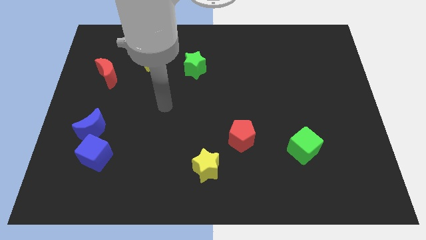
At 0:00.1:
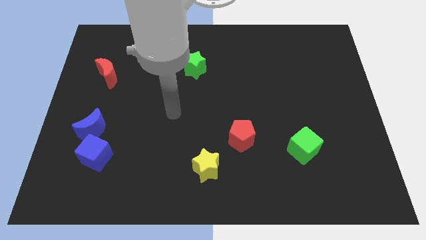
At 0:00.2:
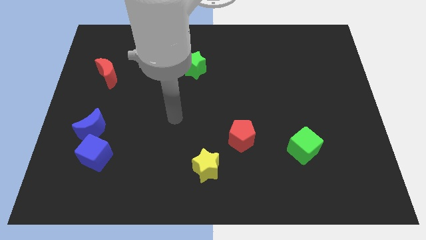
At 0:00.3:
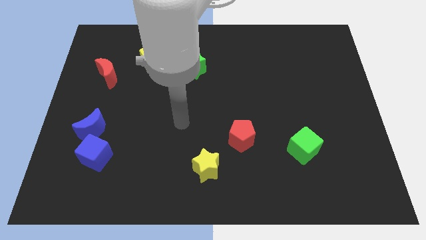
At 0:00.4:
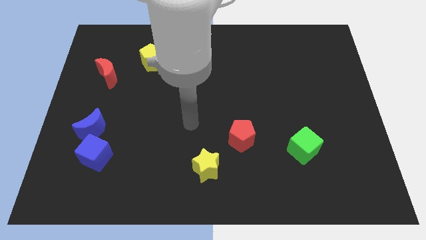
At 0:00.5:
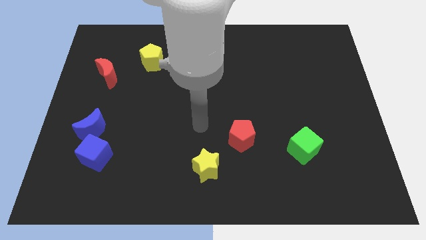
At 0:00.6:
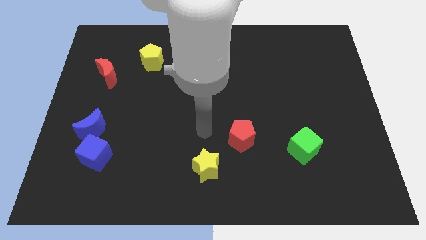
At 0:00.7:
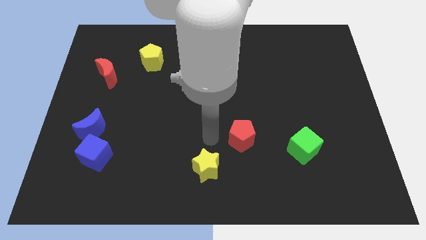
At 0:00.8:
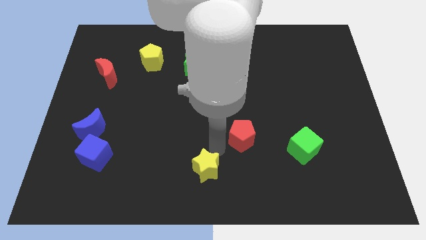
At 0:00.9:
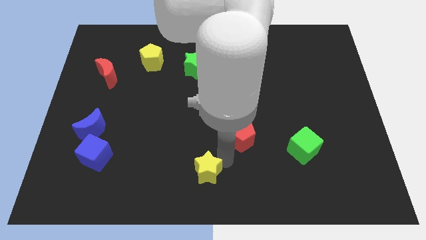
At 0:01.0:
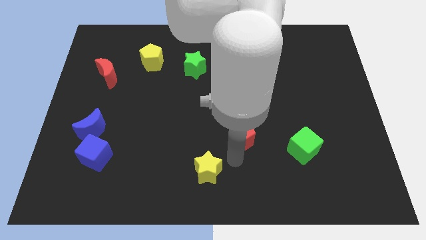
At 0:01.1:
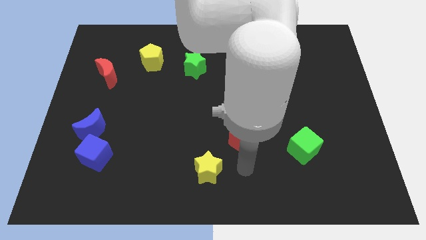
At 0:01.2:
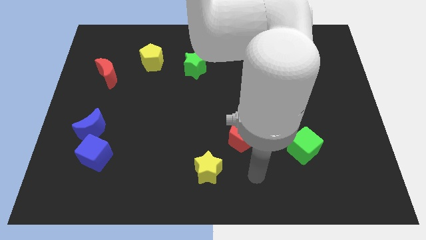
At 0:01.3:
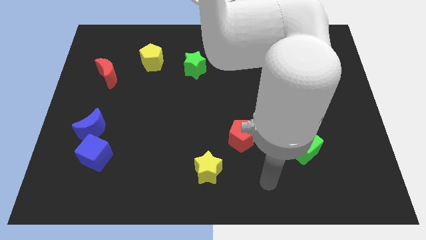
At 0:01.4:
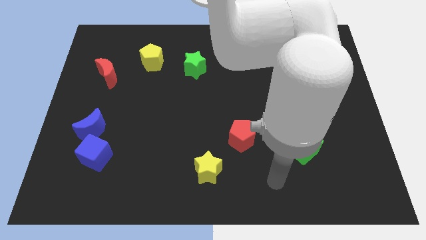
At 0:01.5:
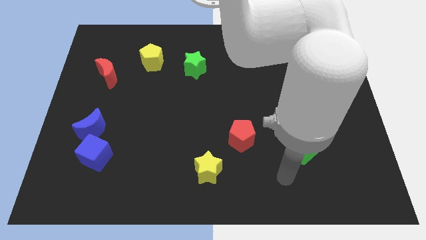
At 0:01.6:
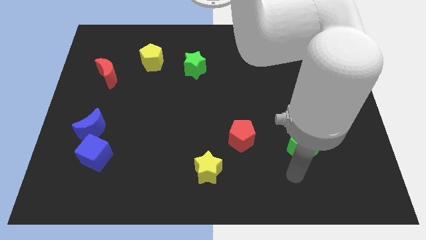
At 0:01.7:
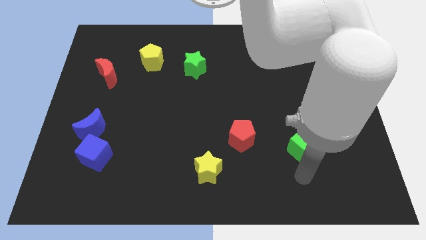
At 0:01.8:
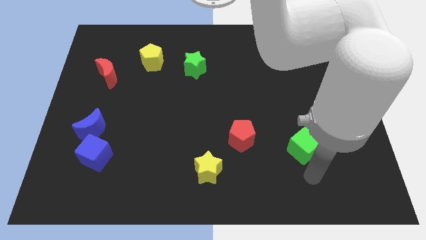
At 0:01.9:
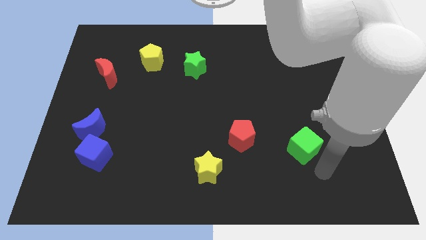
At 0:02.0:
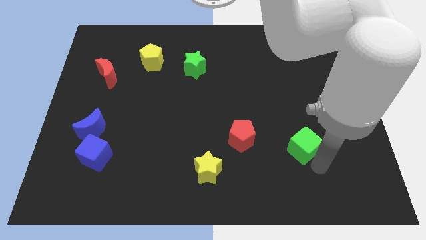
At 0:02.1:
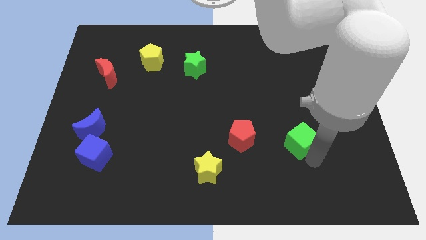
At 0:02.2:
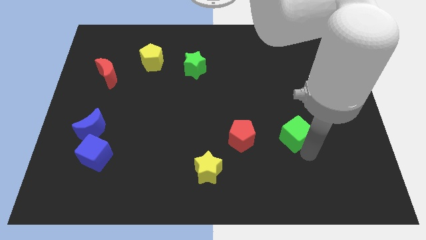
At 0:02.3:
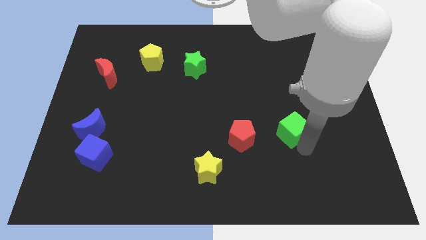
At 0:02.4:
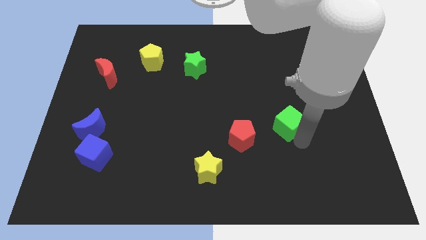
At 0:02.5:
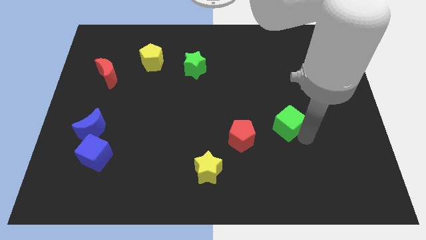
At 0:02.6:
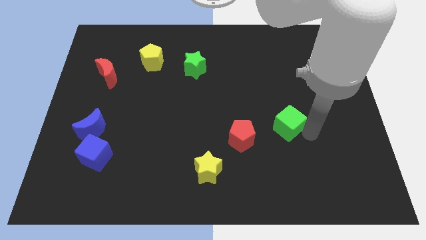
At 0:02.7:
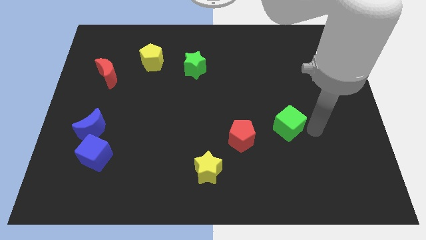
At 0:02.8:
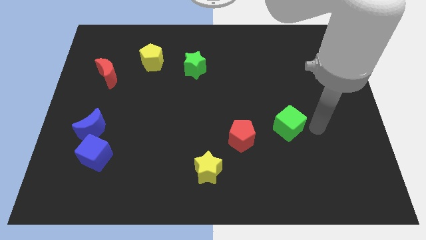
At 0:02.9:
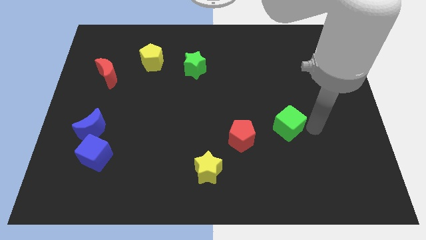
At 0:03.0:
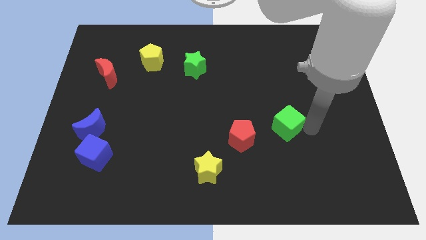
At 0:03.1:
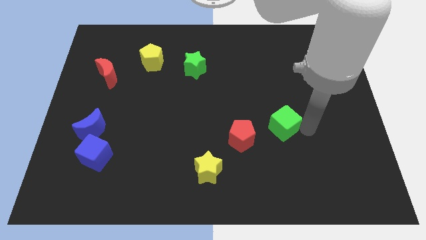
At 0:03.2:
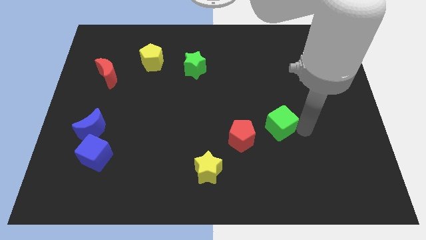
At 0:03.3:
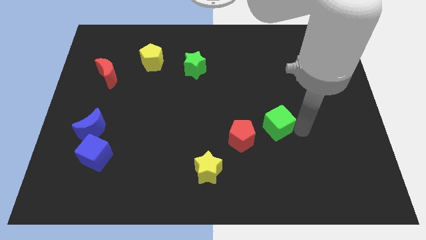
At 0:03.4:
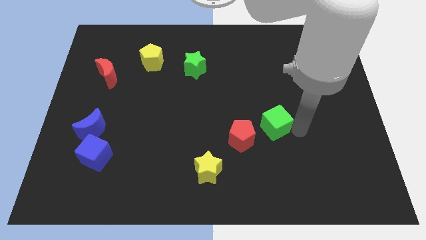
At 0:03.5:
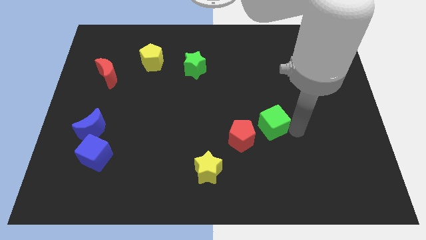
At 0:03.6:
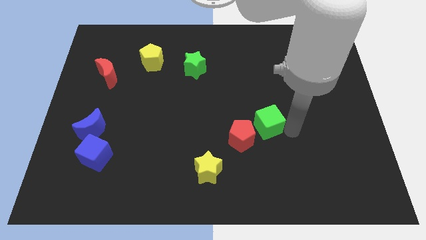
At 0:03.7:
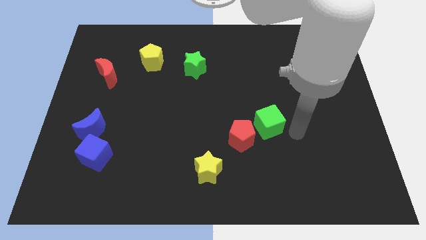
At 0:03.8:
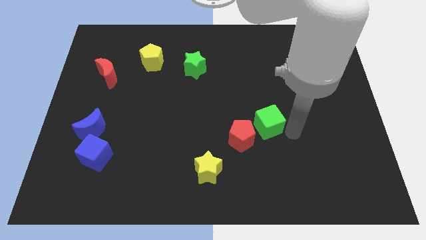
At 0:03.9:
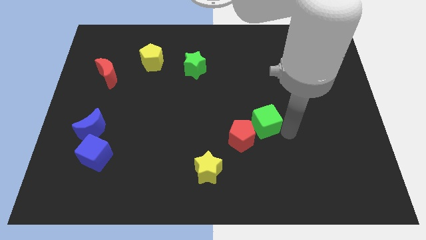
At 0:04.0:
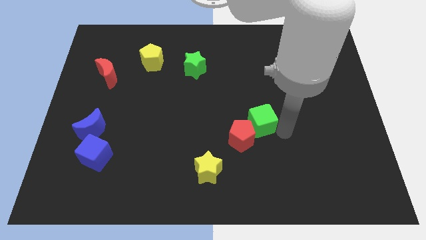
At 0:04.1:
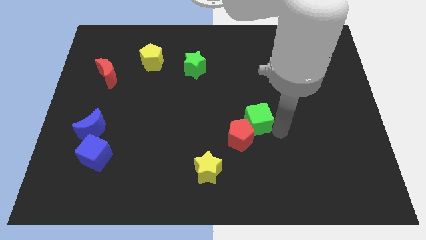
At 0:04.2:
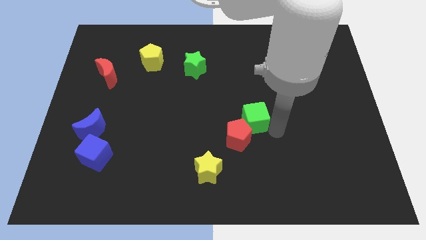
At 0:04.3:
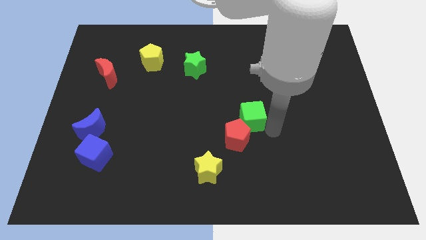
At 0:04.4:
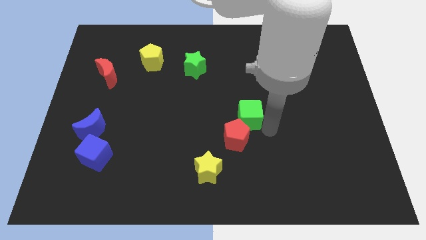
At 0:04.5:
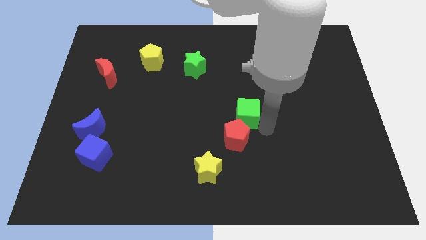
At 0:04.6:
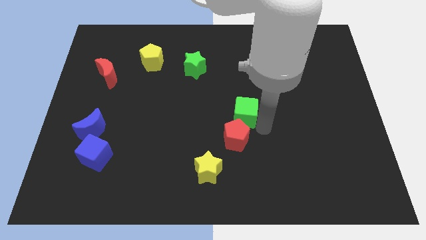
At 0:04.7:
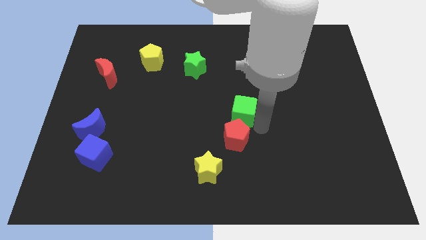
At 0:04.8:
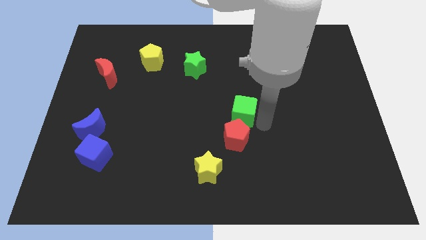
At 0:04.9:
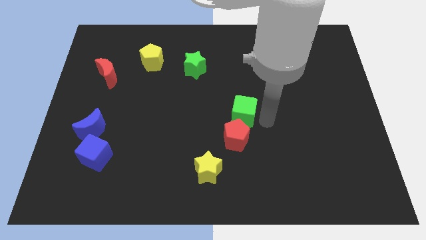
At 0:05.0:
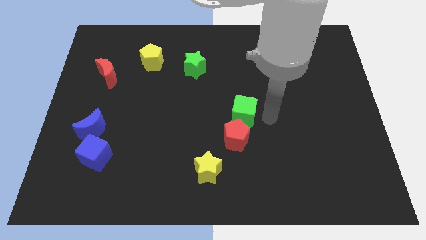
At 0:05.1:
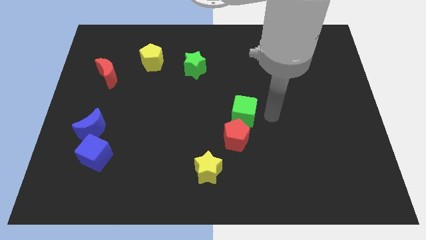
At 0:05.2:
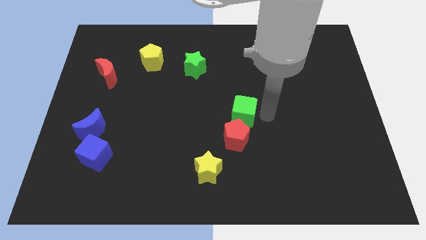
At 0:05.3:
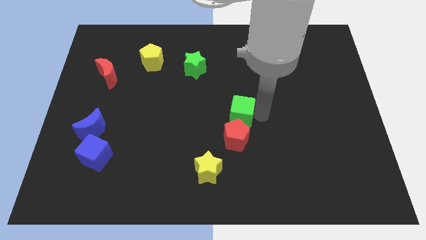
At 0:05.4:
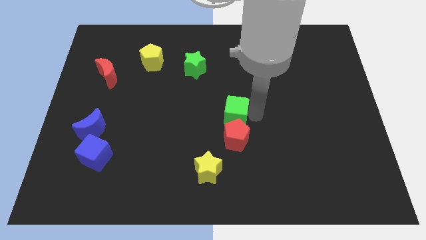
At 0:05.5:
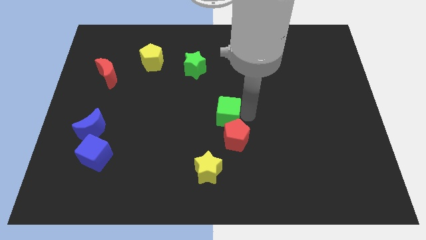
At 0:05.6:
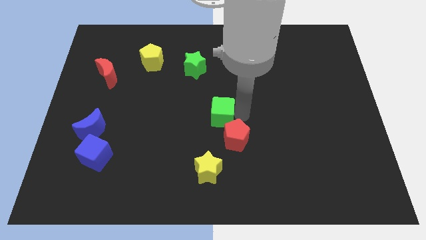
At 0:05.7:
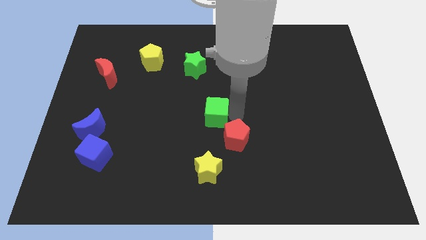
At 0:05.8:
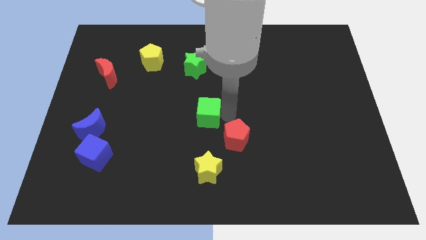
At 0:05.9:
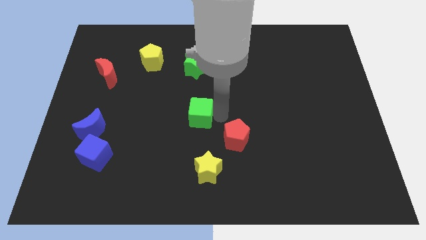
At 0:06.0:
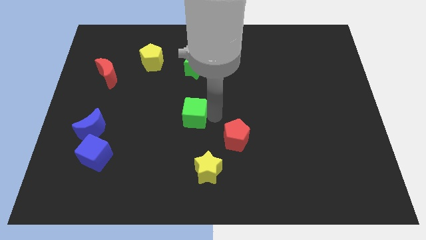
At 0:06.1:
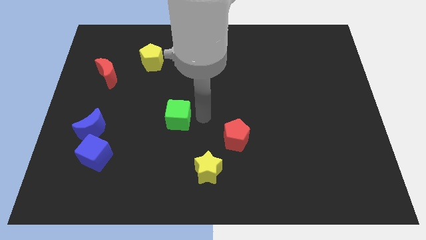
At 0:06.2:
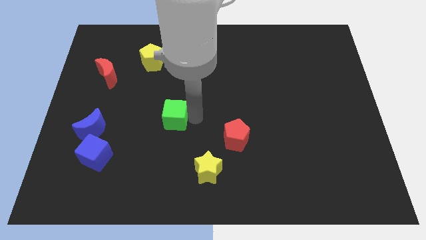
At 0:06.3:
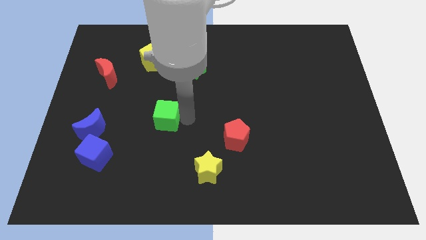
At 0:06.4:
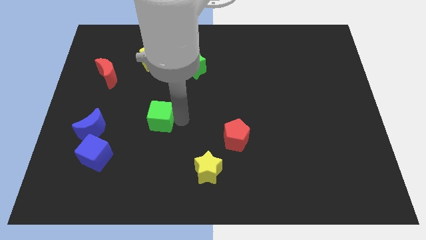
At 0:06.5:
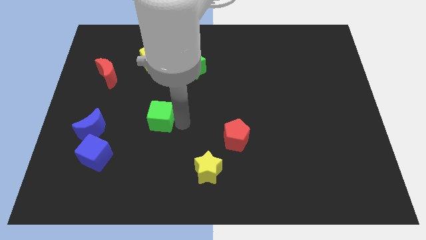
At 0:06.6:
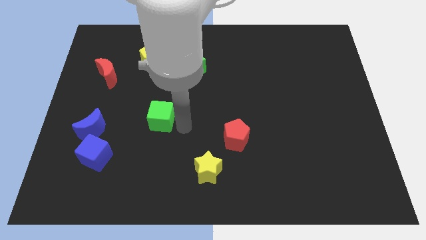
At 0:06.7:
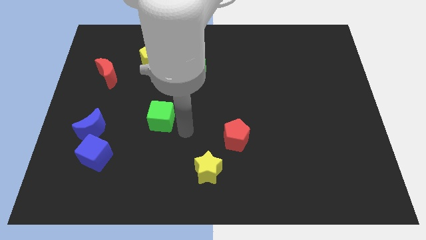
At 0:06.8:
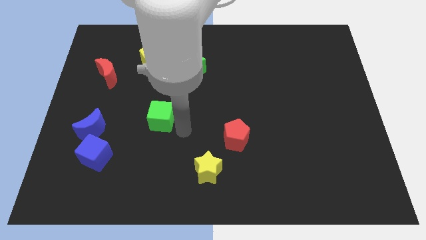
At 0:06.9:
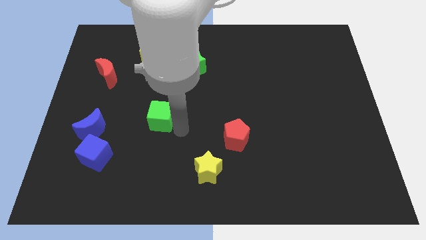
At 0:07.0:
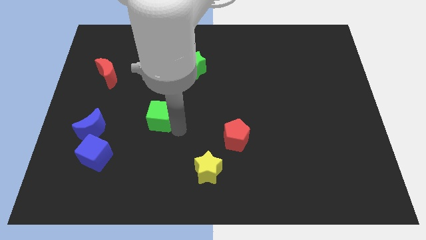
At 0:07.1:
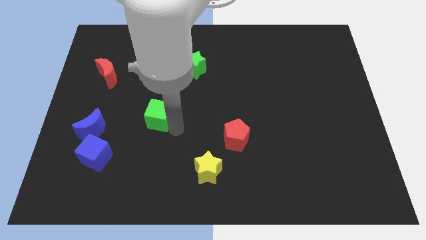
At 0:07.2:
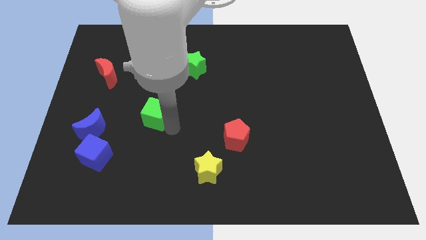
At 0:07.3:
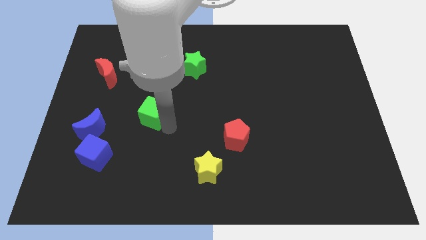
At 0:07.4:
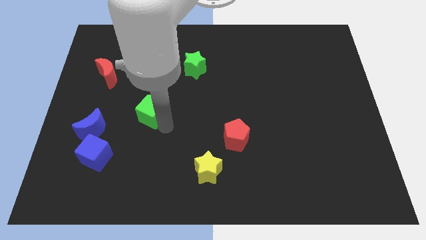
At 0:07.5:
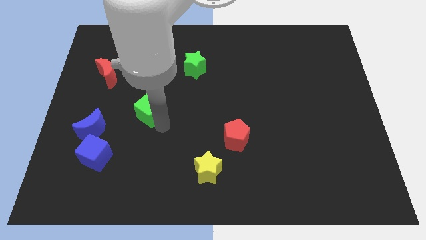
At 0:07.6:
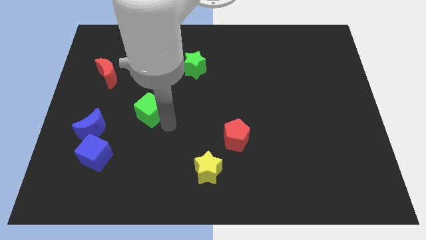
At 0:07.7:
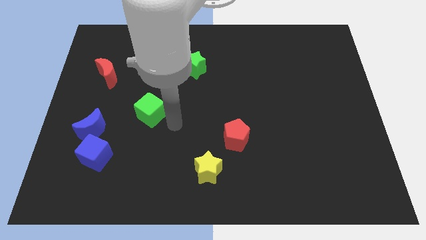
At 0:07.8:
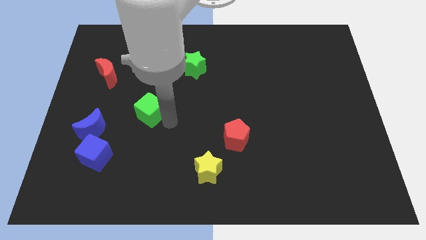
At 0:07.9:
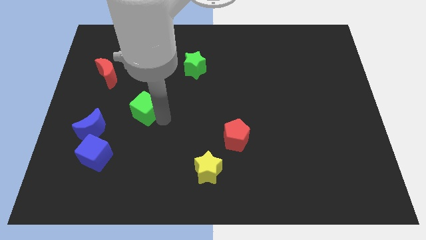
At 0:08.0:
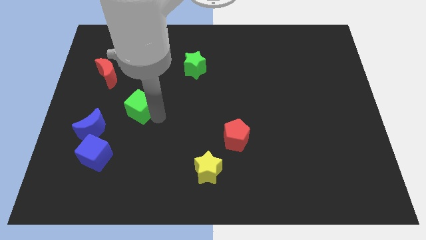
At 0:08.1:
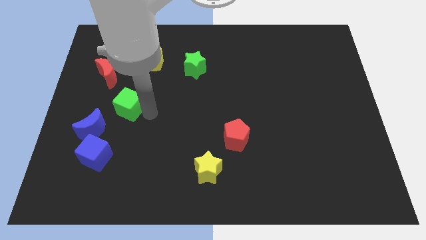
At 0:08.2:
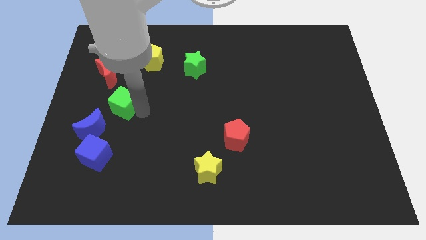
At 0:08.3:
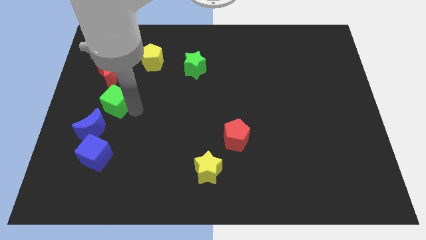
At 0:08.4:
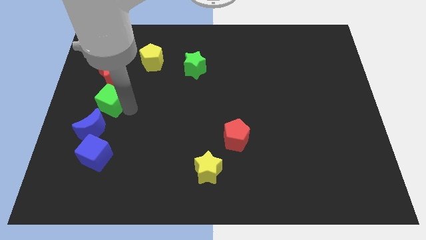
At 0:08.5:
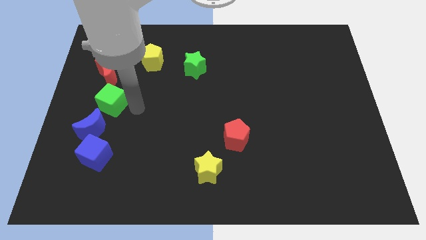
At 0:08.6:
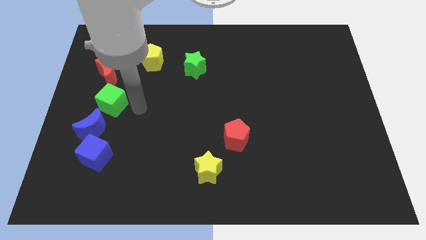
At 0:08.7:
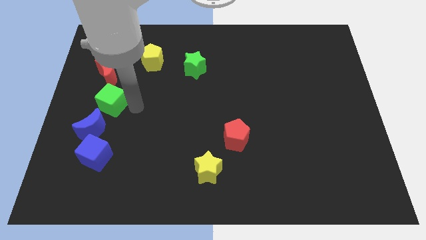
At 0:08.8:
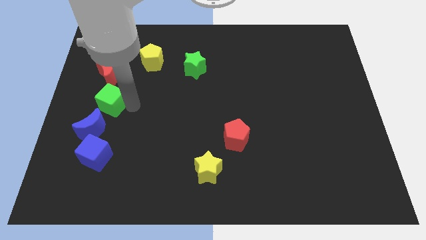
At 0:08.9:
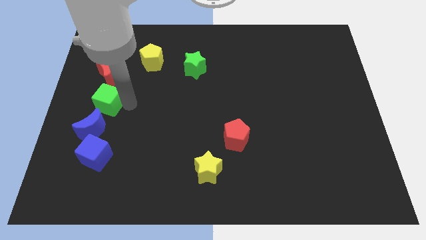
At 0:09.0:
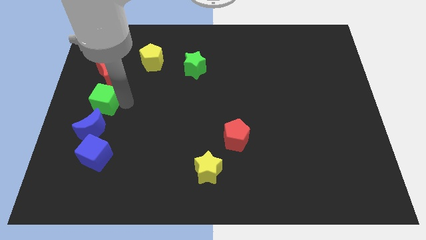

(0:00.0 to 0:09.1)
slide the green cube to the left side of the board
